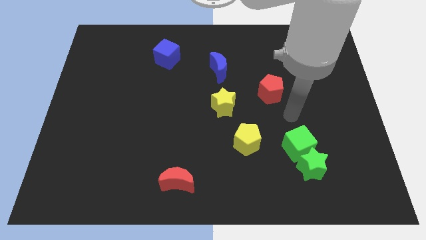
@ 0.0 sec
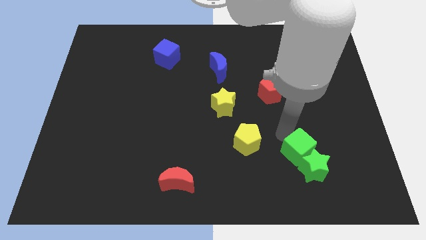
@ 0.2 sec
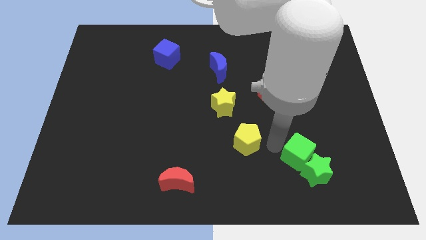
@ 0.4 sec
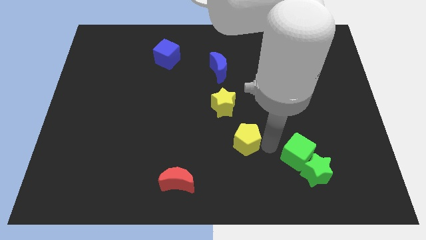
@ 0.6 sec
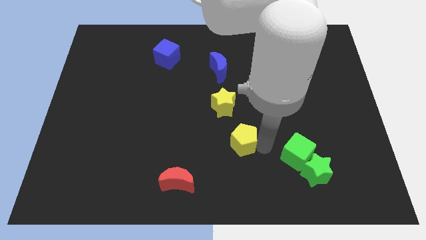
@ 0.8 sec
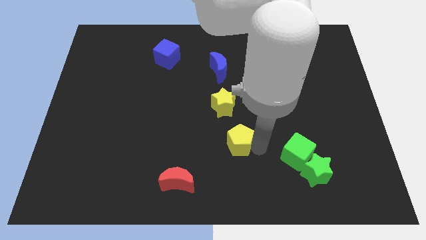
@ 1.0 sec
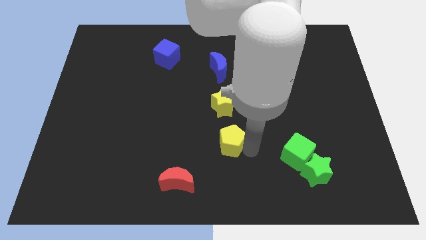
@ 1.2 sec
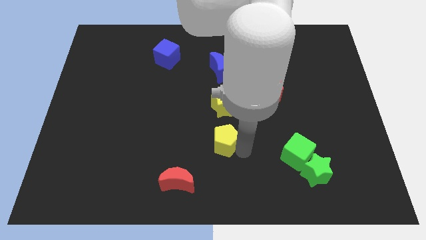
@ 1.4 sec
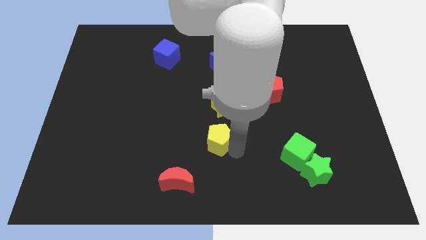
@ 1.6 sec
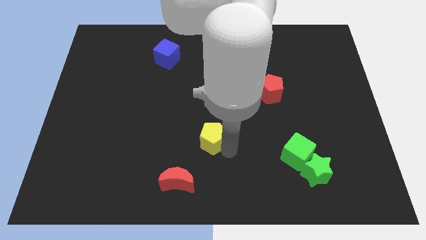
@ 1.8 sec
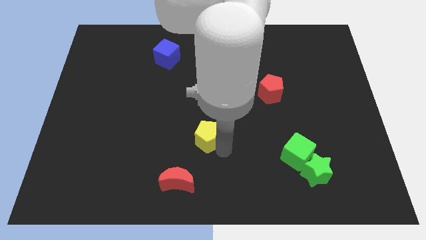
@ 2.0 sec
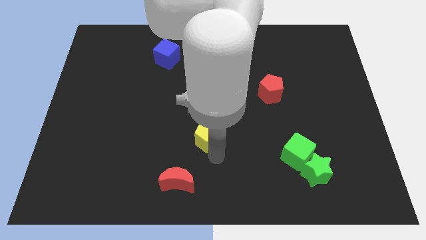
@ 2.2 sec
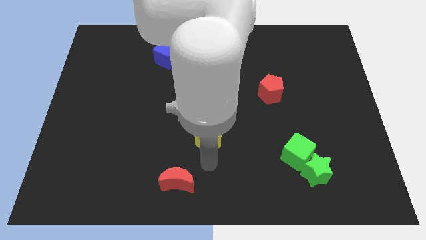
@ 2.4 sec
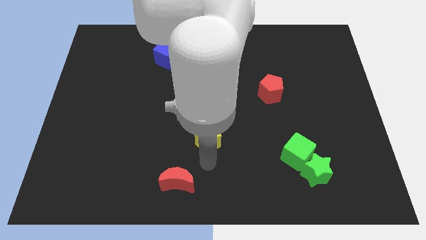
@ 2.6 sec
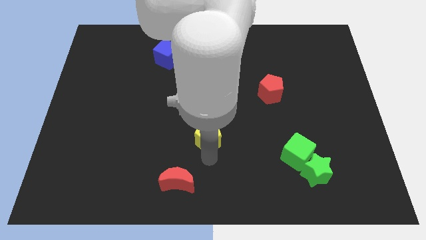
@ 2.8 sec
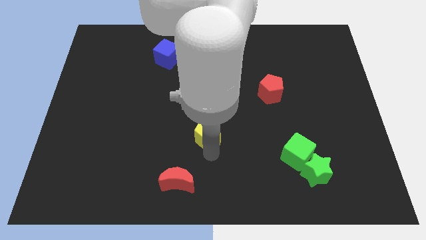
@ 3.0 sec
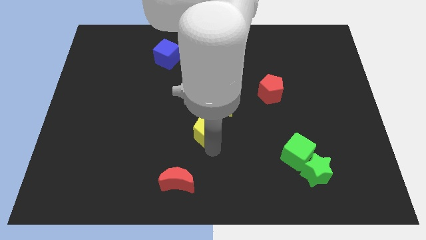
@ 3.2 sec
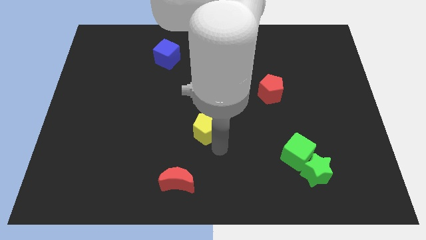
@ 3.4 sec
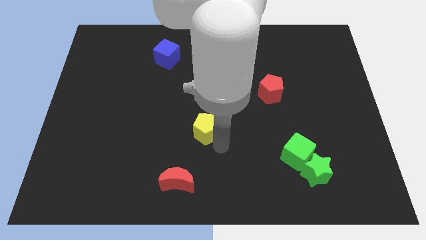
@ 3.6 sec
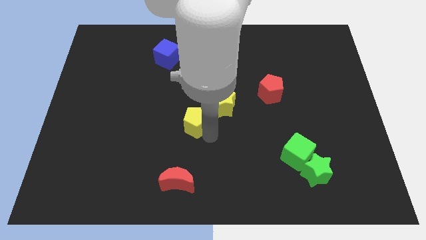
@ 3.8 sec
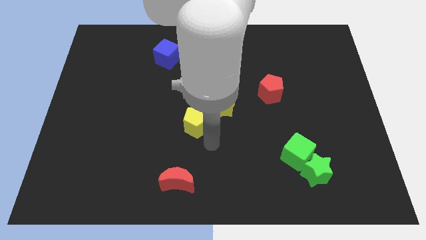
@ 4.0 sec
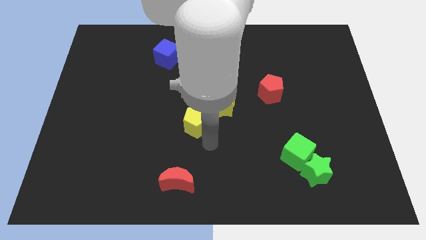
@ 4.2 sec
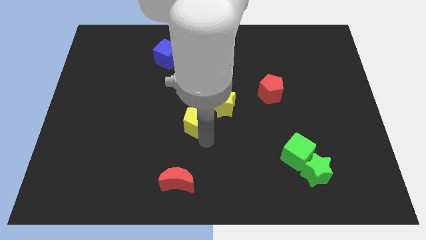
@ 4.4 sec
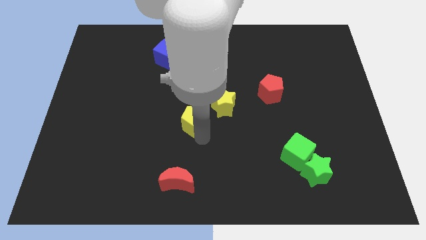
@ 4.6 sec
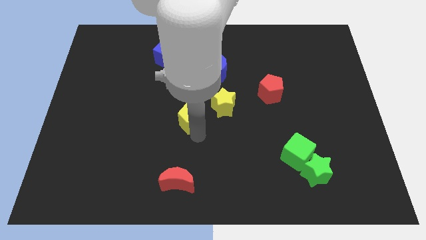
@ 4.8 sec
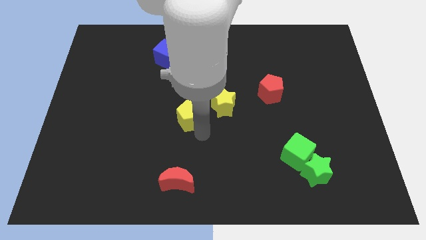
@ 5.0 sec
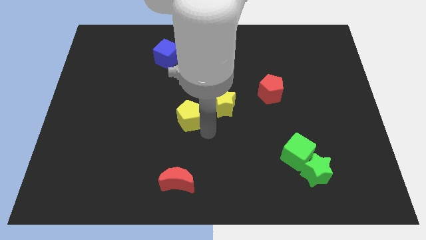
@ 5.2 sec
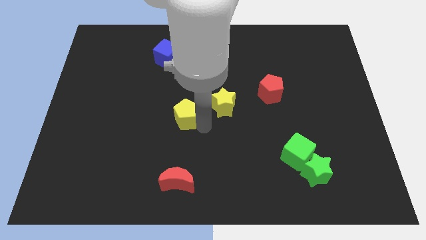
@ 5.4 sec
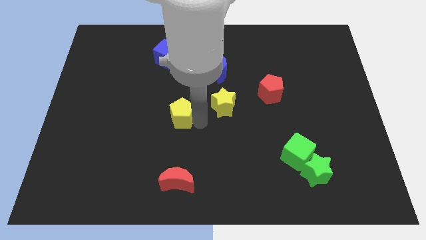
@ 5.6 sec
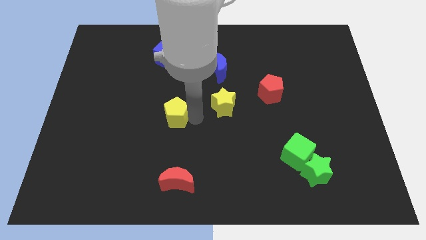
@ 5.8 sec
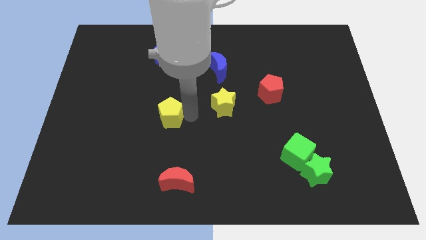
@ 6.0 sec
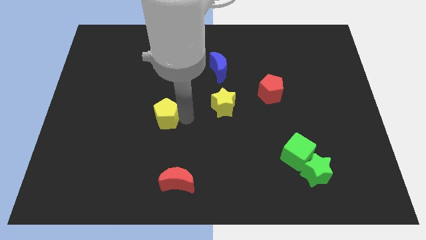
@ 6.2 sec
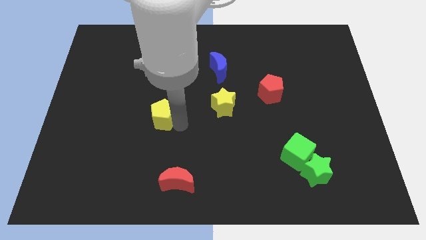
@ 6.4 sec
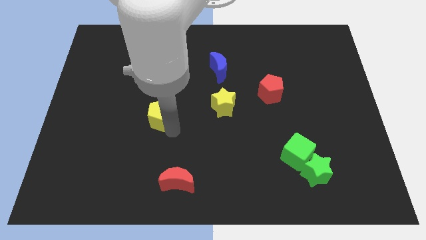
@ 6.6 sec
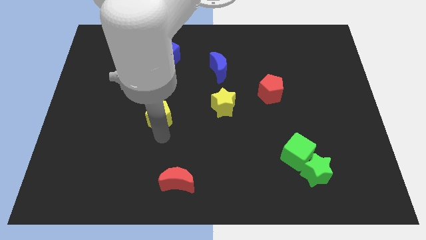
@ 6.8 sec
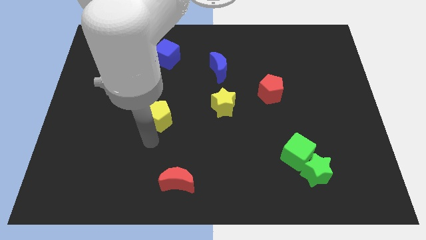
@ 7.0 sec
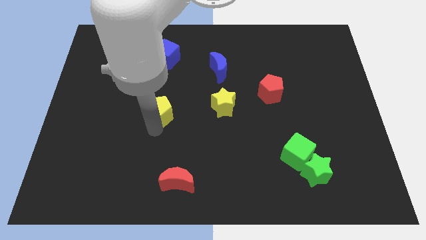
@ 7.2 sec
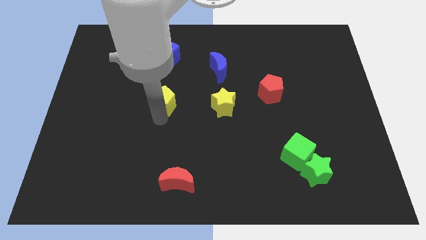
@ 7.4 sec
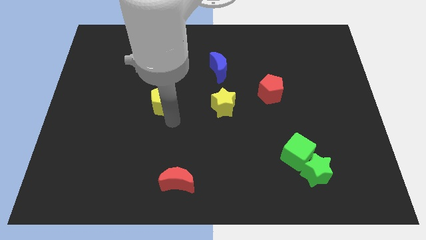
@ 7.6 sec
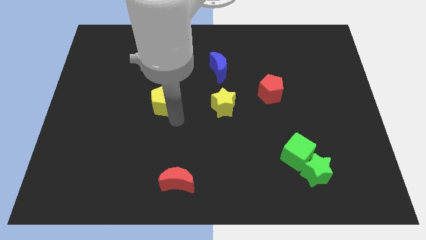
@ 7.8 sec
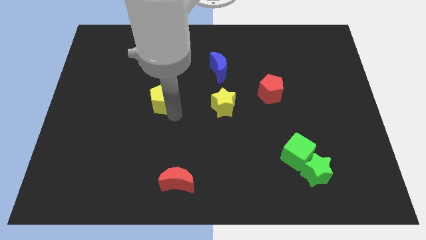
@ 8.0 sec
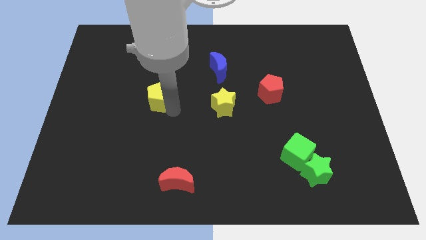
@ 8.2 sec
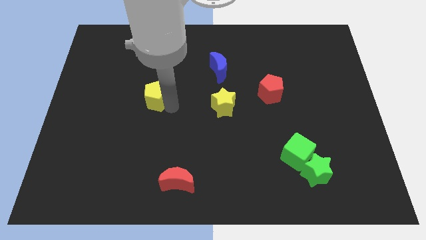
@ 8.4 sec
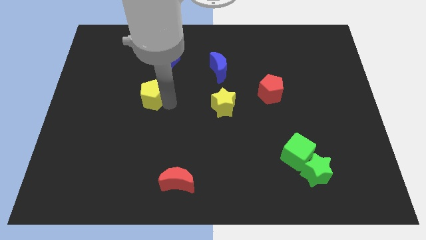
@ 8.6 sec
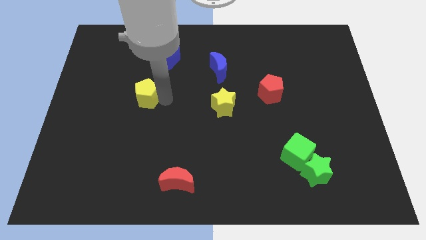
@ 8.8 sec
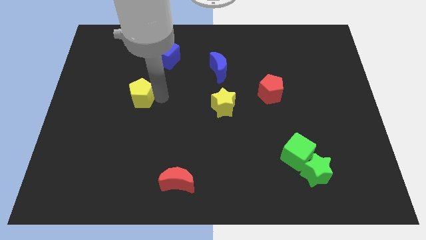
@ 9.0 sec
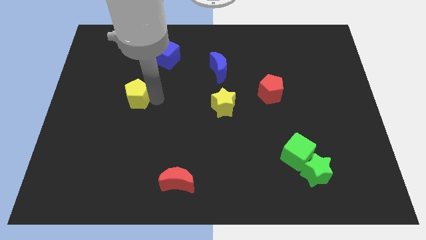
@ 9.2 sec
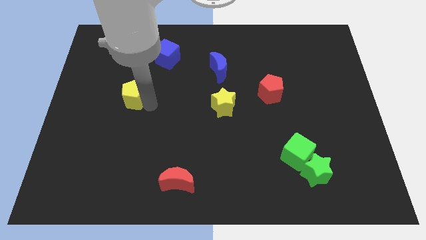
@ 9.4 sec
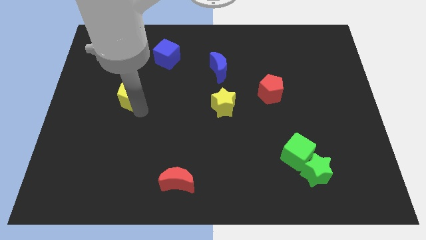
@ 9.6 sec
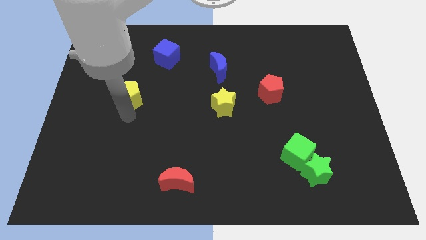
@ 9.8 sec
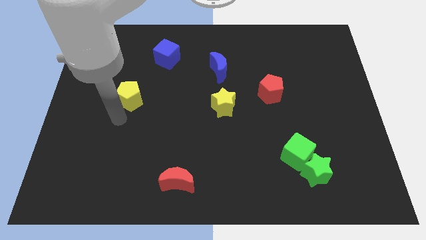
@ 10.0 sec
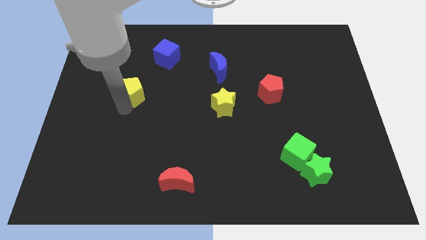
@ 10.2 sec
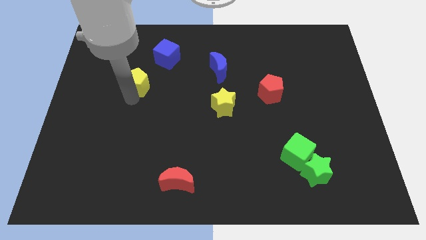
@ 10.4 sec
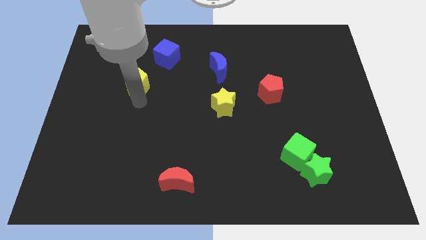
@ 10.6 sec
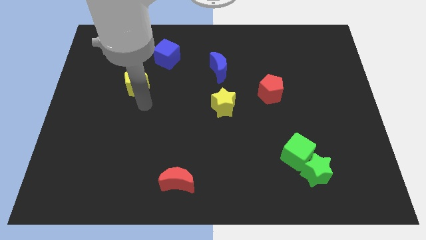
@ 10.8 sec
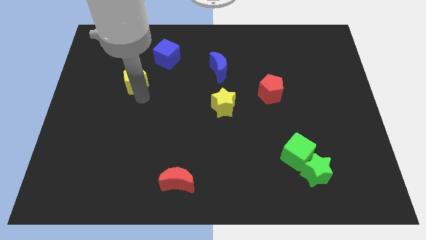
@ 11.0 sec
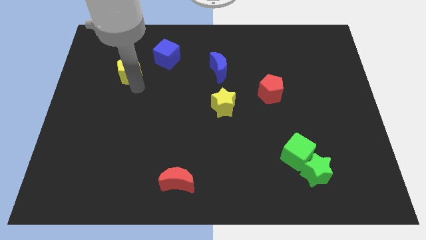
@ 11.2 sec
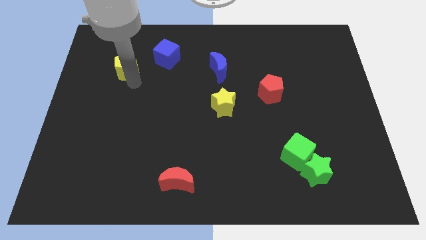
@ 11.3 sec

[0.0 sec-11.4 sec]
put the yellow pentagon just left of the blue cube

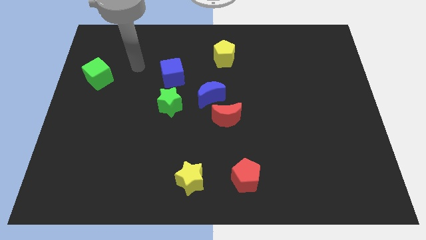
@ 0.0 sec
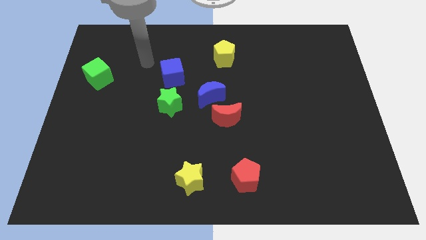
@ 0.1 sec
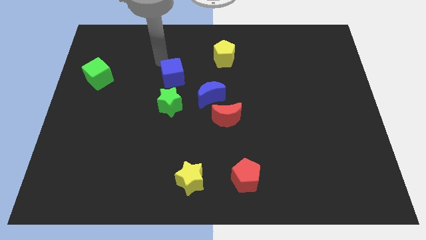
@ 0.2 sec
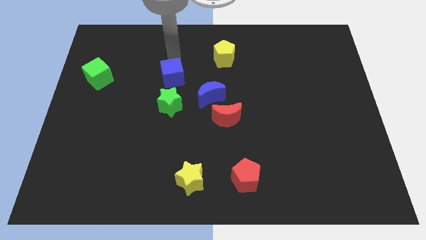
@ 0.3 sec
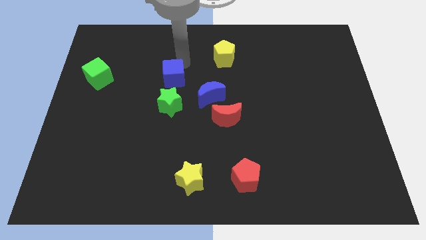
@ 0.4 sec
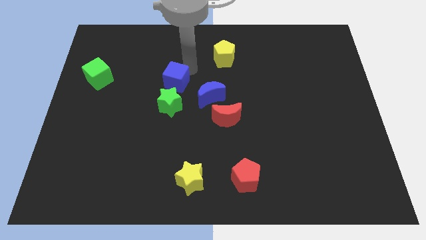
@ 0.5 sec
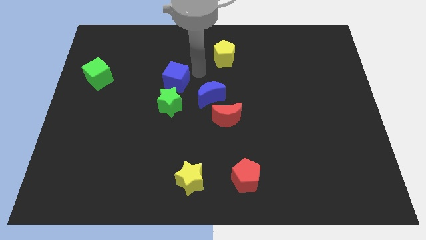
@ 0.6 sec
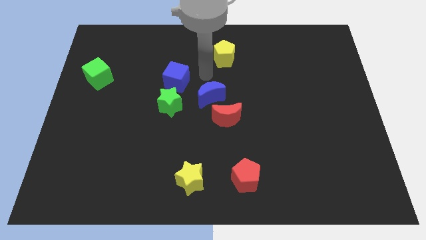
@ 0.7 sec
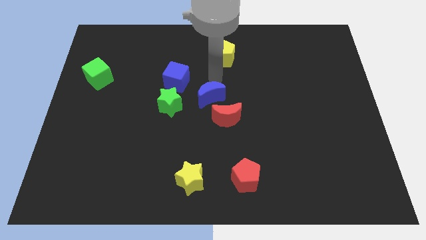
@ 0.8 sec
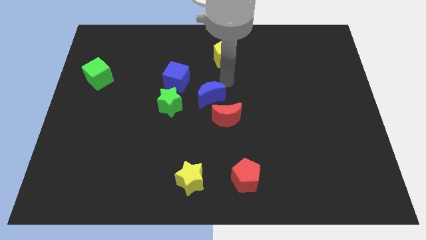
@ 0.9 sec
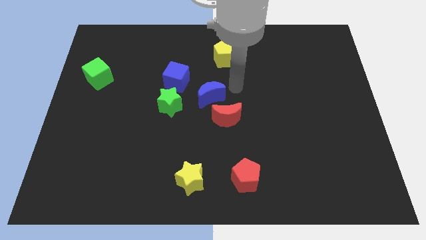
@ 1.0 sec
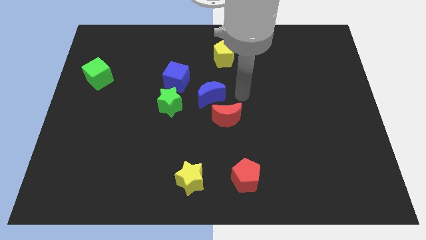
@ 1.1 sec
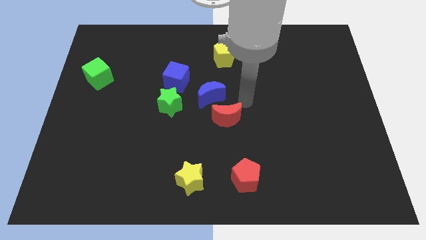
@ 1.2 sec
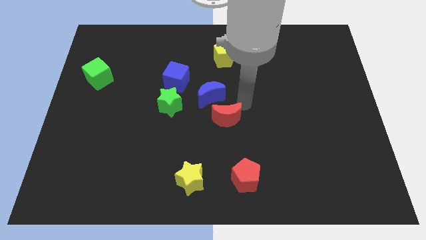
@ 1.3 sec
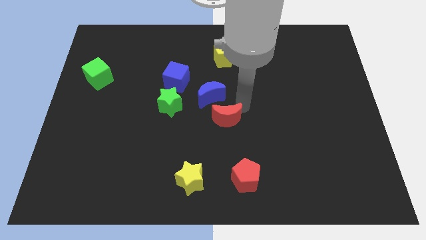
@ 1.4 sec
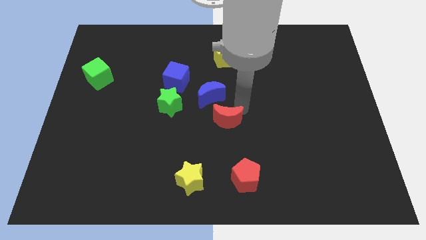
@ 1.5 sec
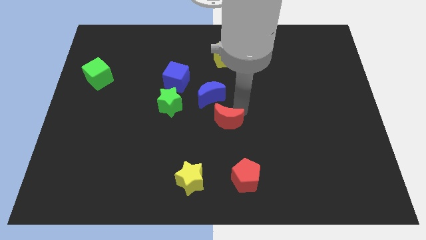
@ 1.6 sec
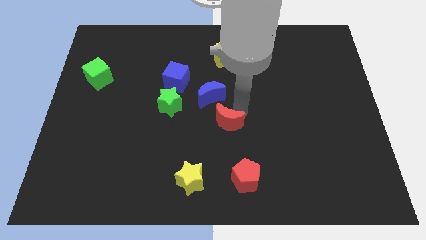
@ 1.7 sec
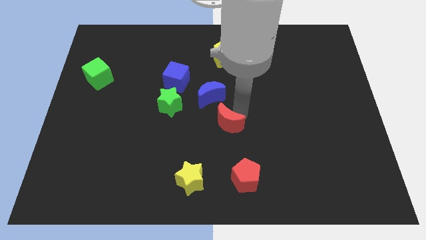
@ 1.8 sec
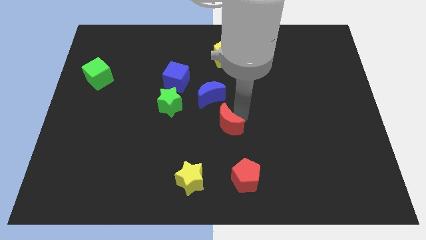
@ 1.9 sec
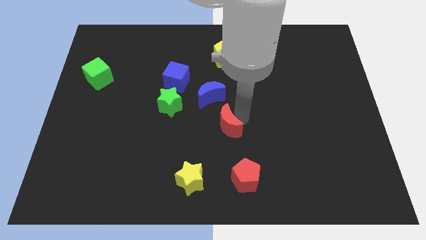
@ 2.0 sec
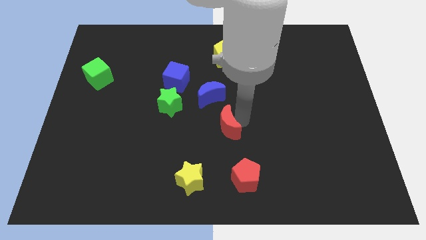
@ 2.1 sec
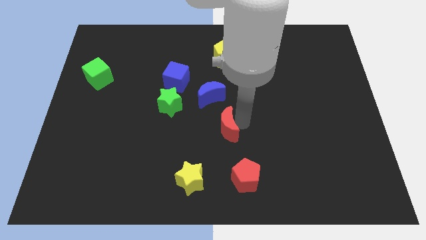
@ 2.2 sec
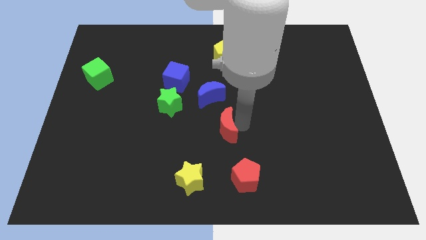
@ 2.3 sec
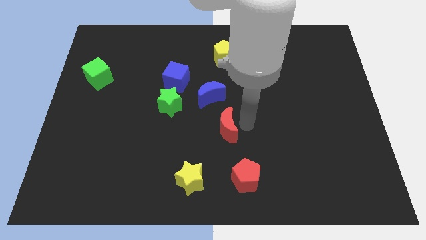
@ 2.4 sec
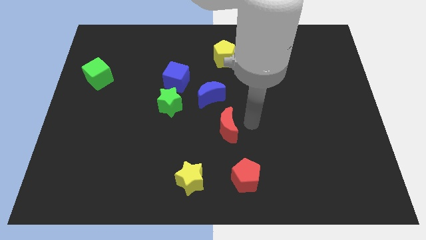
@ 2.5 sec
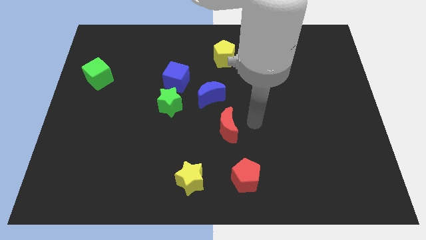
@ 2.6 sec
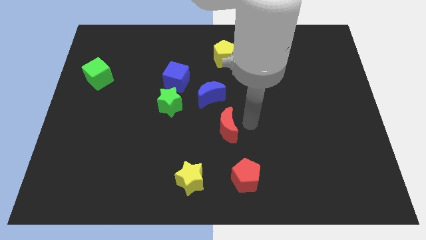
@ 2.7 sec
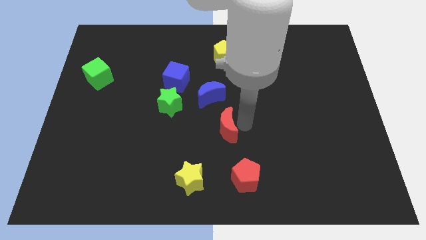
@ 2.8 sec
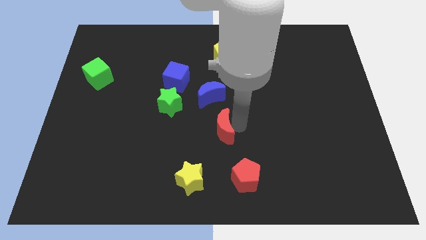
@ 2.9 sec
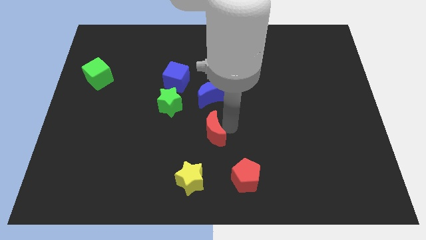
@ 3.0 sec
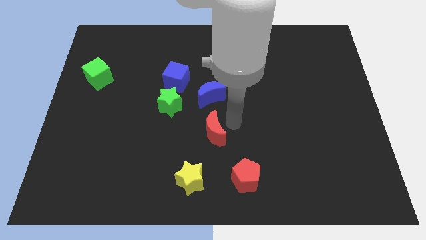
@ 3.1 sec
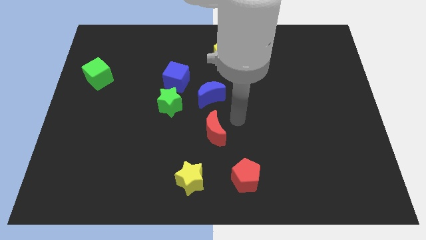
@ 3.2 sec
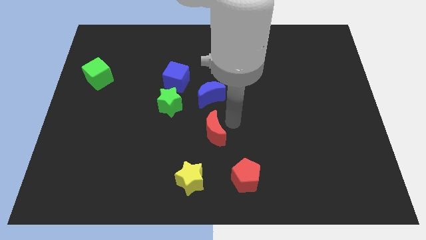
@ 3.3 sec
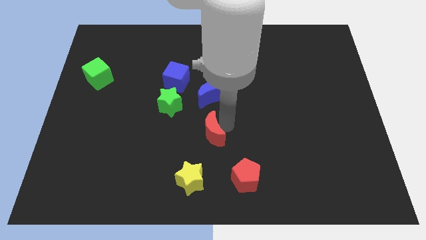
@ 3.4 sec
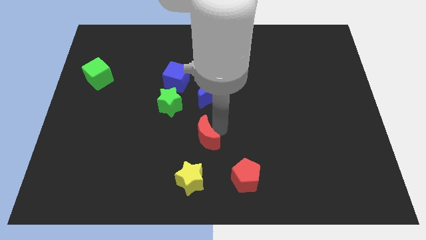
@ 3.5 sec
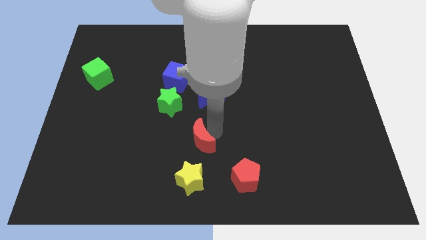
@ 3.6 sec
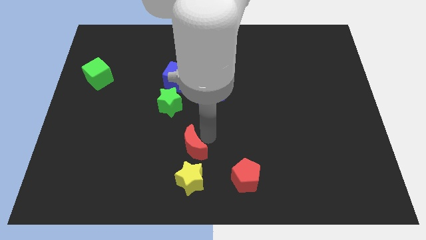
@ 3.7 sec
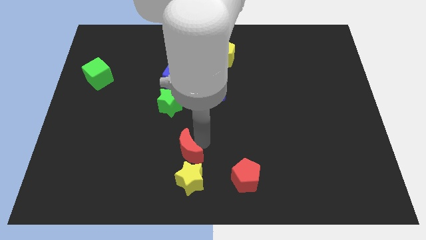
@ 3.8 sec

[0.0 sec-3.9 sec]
slide the red moon diagonally up and to the left of the yellow star
